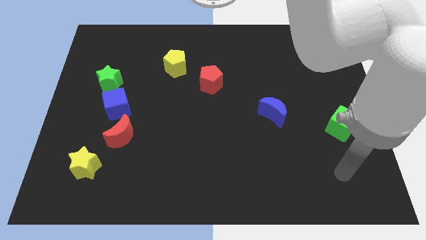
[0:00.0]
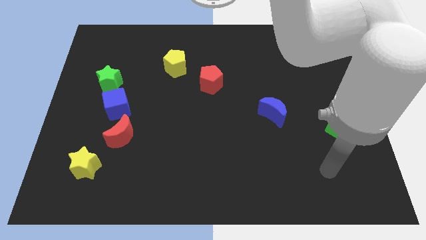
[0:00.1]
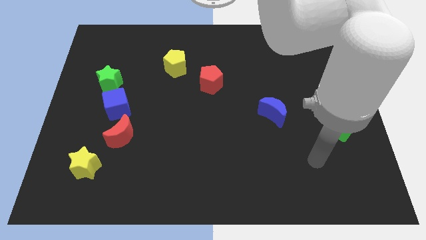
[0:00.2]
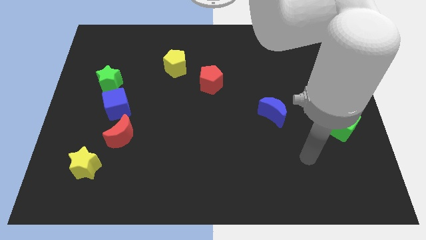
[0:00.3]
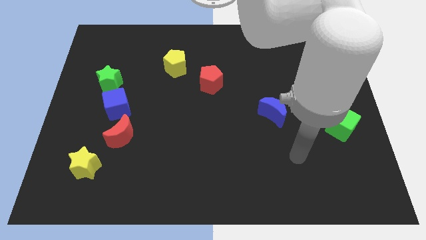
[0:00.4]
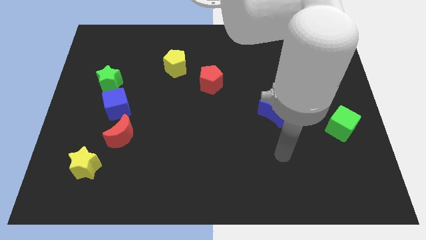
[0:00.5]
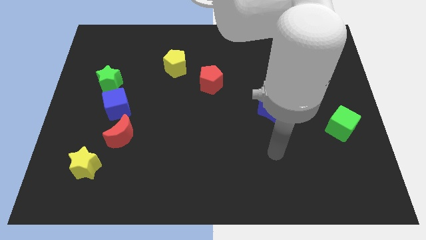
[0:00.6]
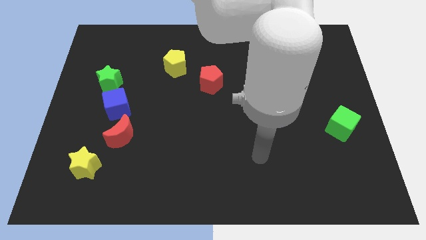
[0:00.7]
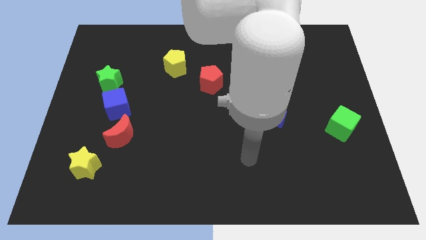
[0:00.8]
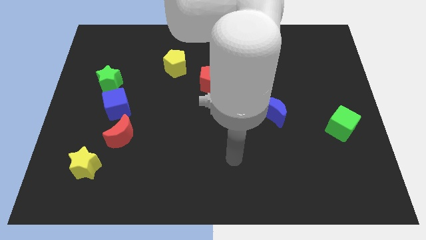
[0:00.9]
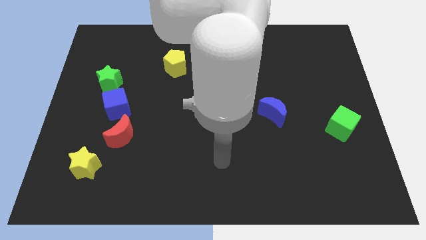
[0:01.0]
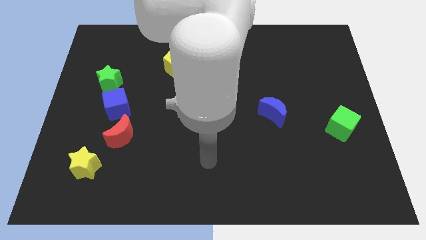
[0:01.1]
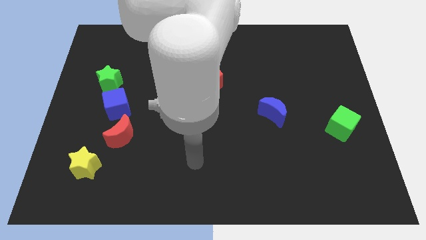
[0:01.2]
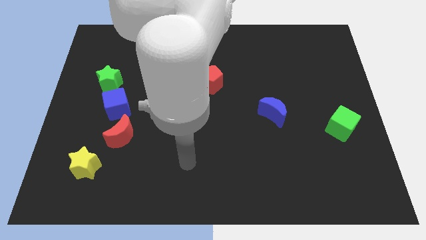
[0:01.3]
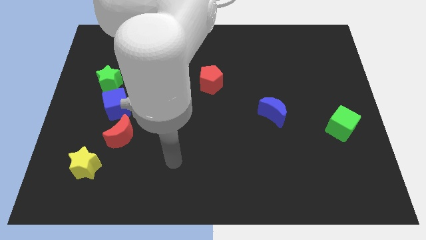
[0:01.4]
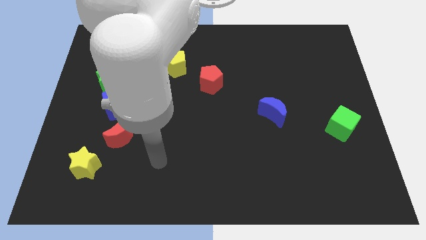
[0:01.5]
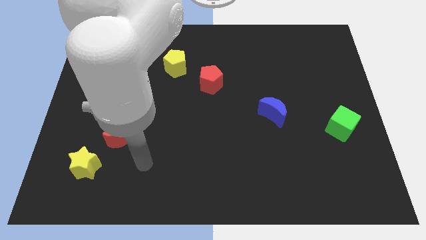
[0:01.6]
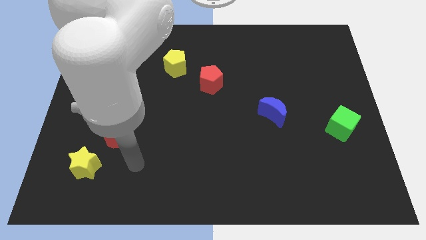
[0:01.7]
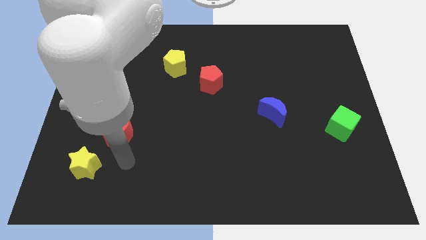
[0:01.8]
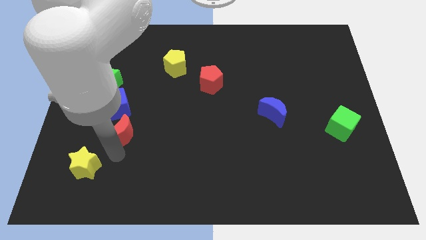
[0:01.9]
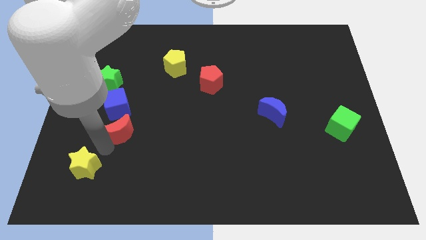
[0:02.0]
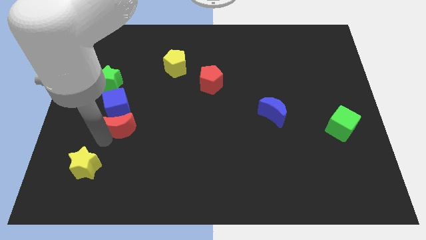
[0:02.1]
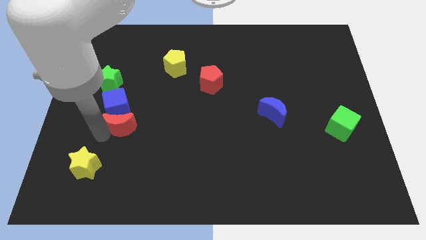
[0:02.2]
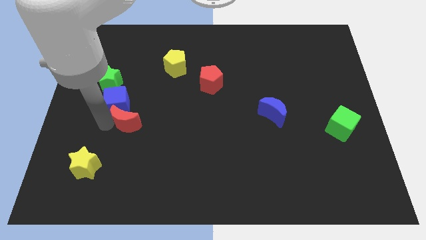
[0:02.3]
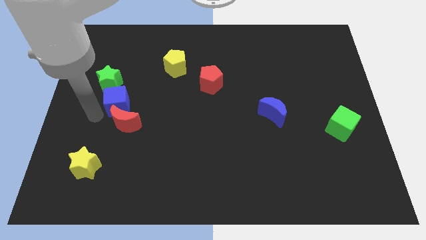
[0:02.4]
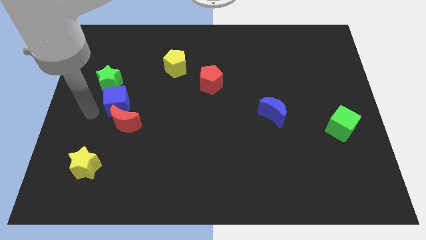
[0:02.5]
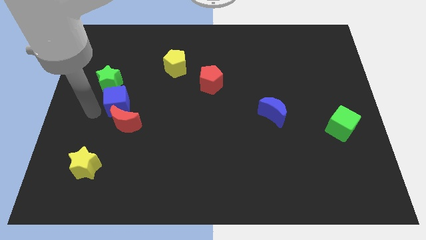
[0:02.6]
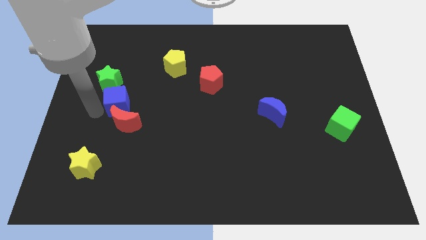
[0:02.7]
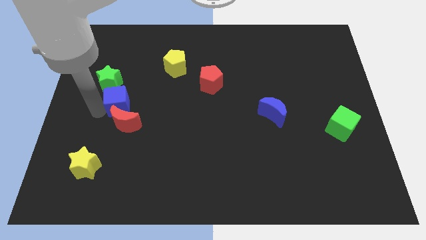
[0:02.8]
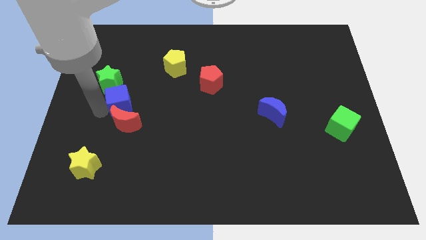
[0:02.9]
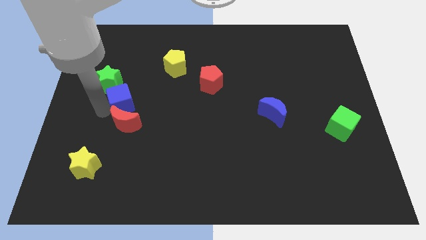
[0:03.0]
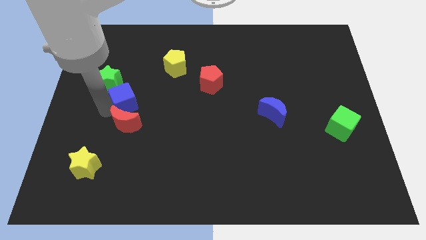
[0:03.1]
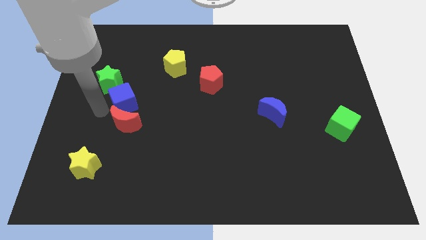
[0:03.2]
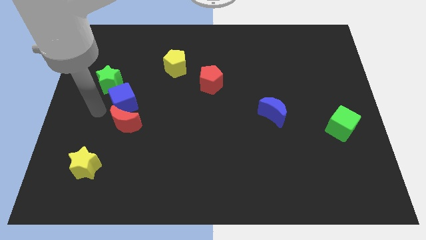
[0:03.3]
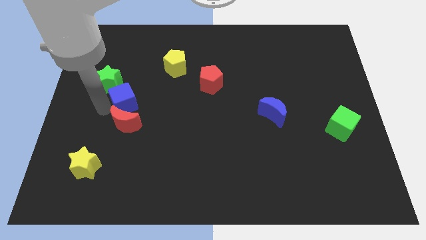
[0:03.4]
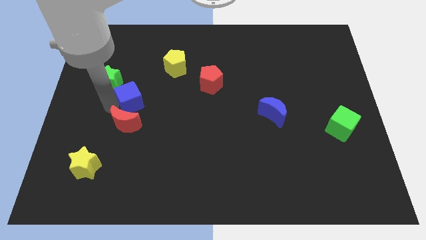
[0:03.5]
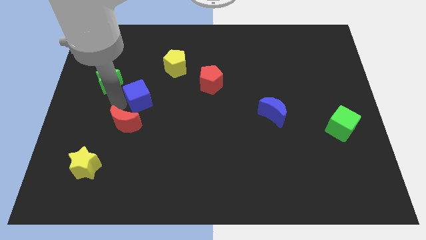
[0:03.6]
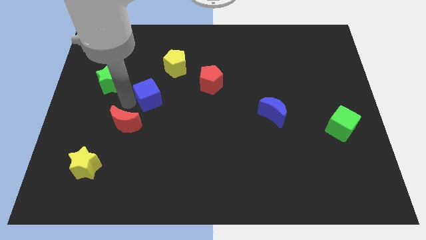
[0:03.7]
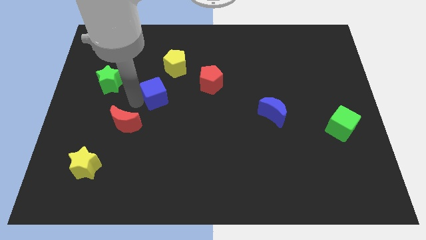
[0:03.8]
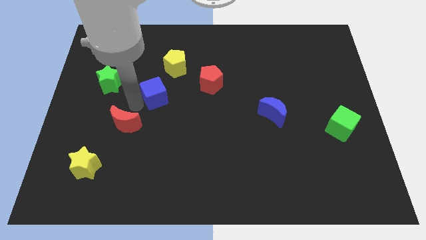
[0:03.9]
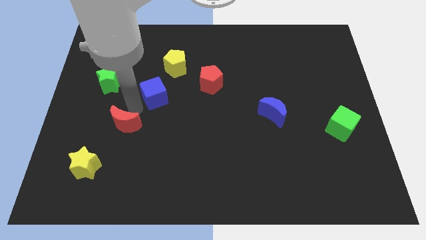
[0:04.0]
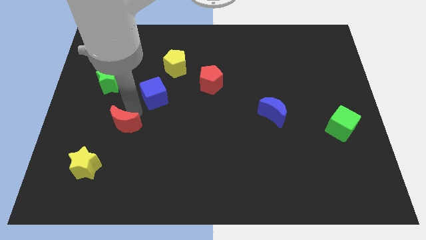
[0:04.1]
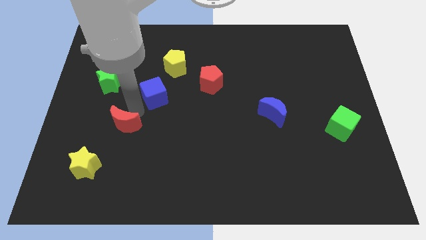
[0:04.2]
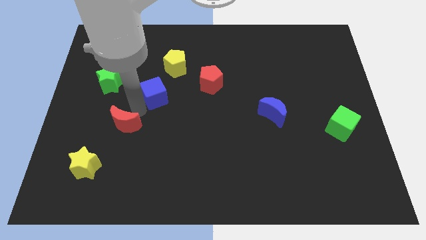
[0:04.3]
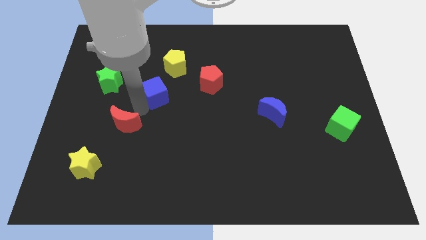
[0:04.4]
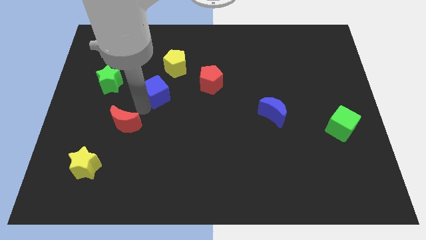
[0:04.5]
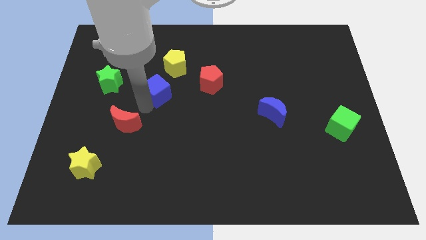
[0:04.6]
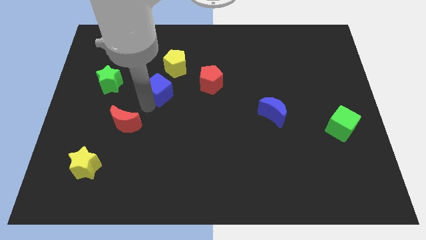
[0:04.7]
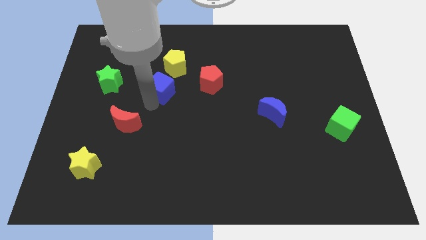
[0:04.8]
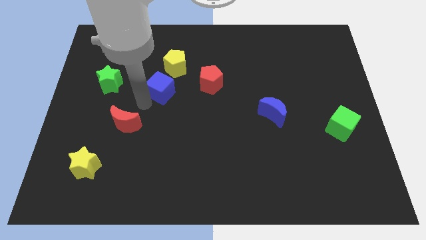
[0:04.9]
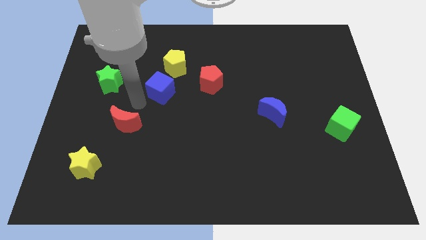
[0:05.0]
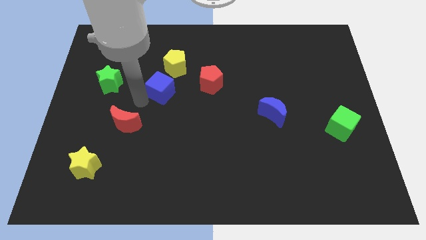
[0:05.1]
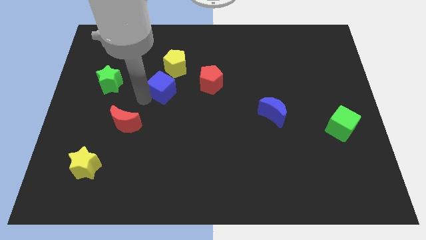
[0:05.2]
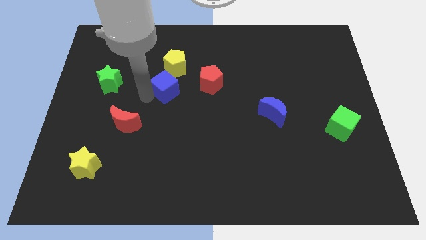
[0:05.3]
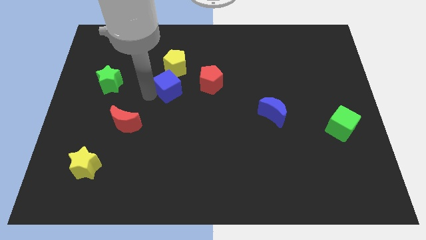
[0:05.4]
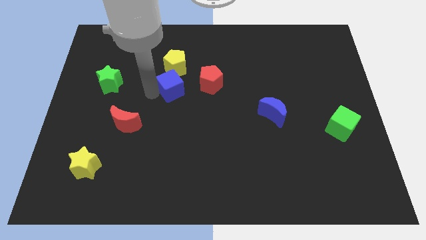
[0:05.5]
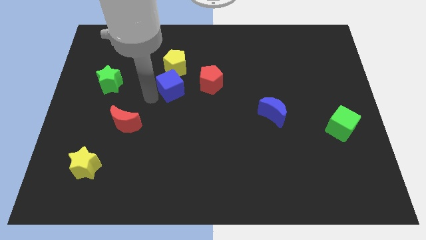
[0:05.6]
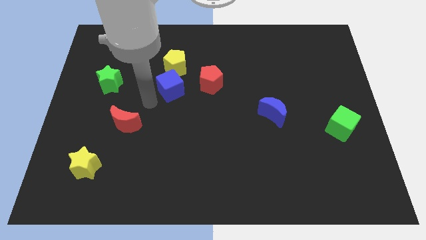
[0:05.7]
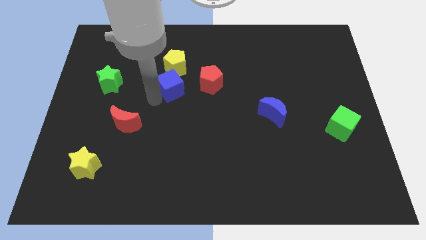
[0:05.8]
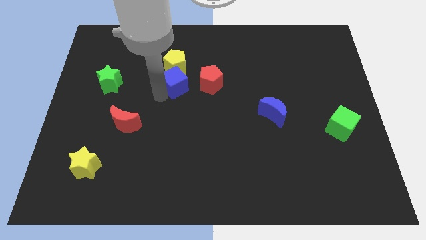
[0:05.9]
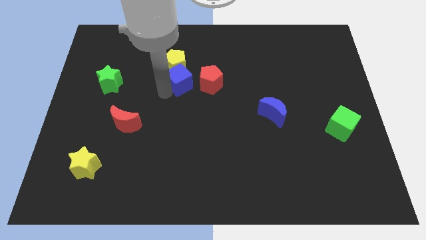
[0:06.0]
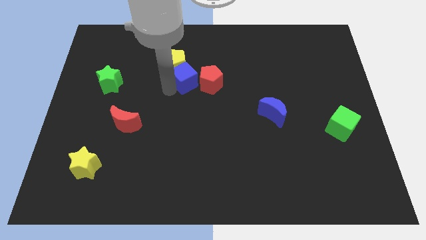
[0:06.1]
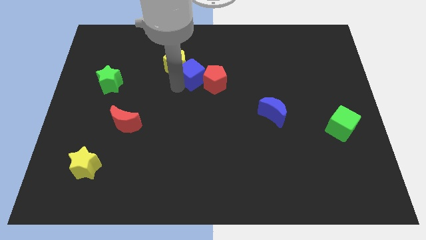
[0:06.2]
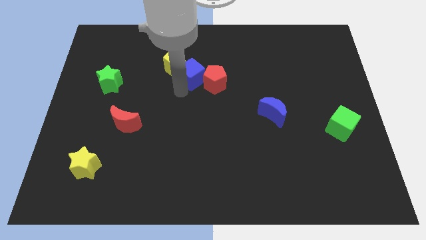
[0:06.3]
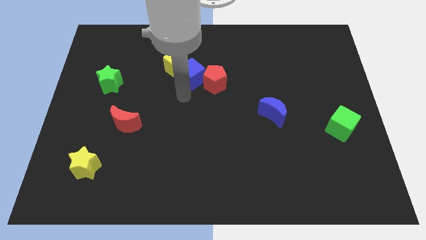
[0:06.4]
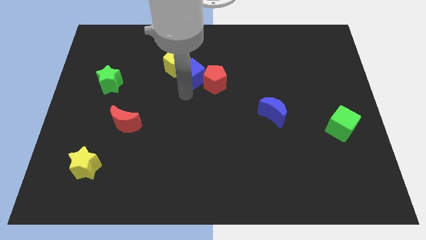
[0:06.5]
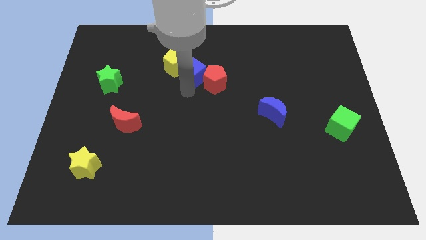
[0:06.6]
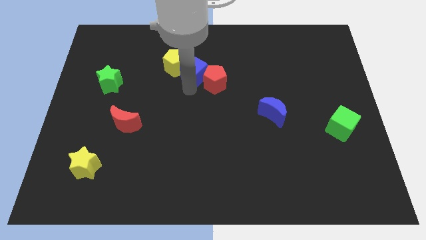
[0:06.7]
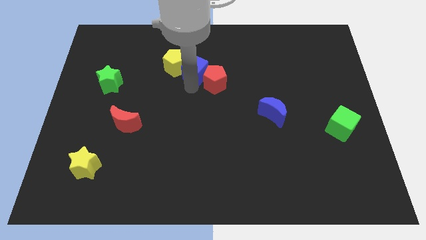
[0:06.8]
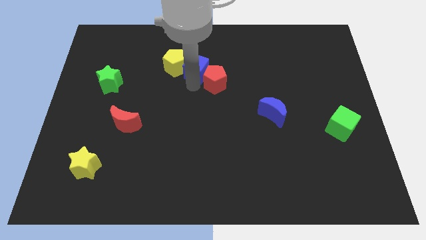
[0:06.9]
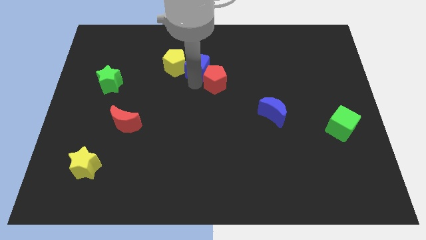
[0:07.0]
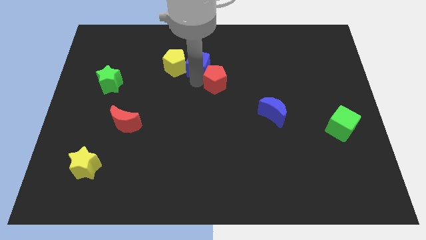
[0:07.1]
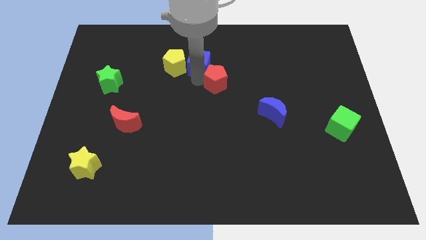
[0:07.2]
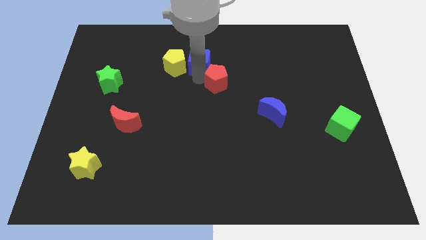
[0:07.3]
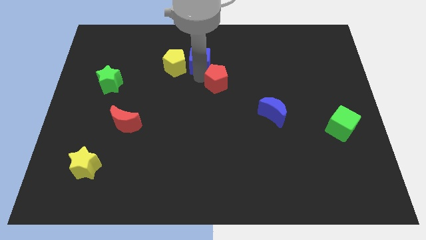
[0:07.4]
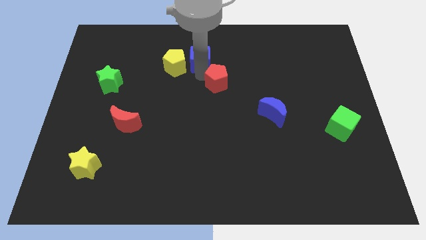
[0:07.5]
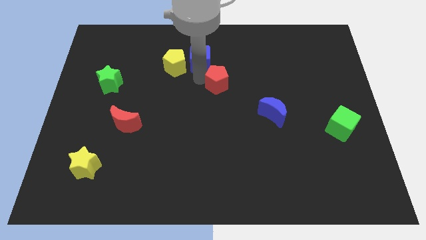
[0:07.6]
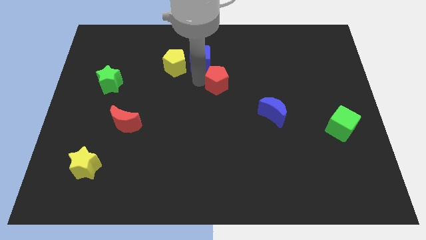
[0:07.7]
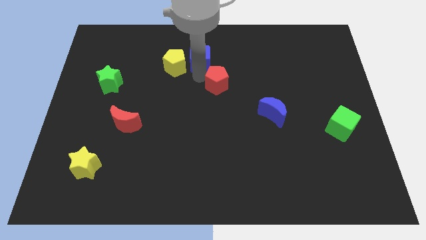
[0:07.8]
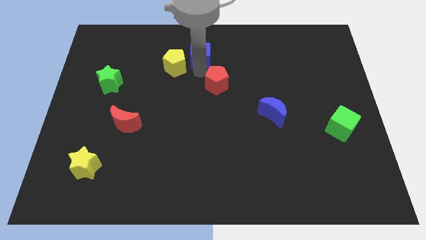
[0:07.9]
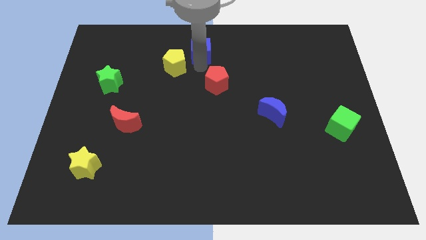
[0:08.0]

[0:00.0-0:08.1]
put the blue cube to the towards your base
